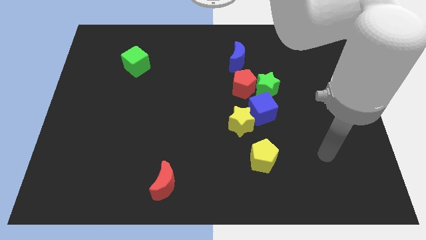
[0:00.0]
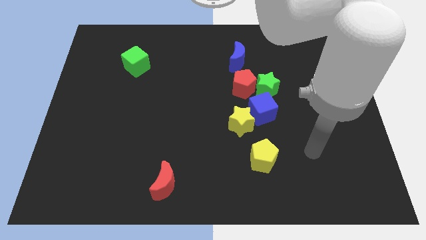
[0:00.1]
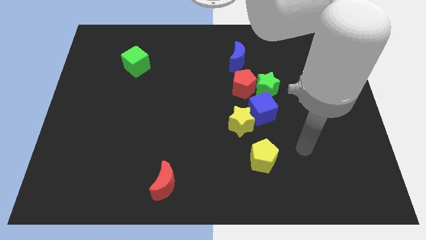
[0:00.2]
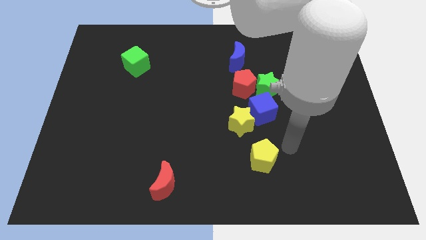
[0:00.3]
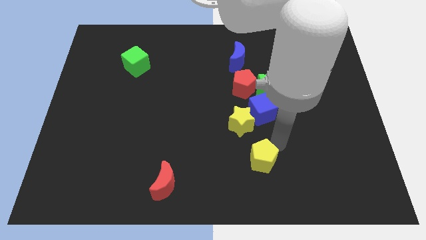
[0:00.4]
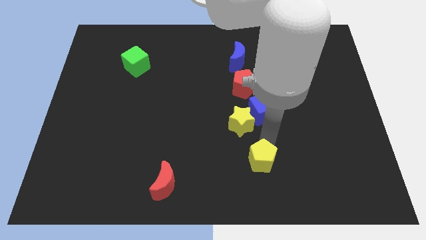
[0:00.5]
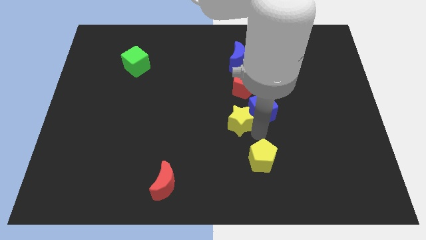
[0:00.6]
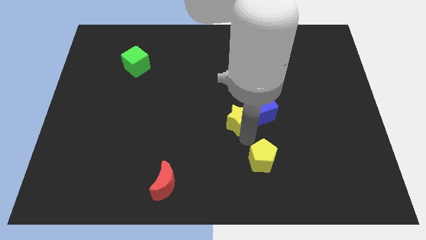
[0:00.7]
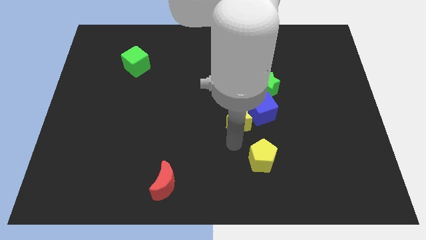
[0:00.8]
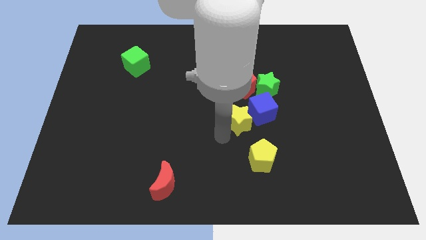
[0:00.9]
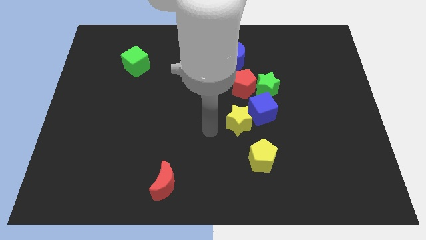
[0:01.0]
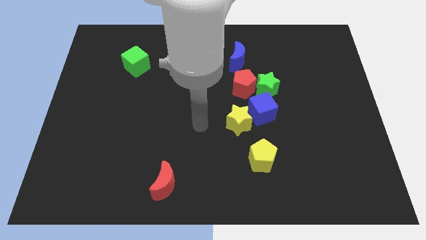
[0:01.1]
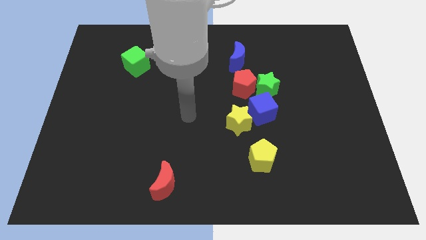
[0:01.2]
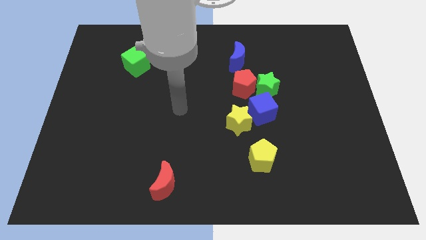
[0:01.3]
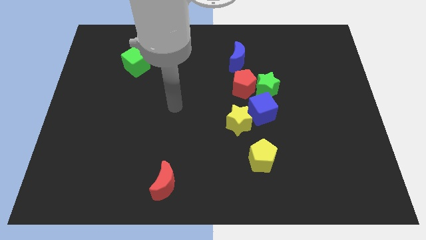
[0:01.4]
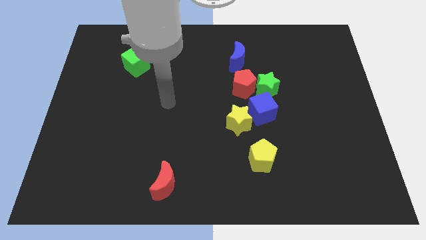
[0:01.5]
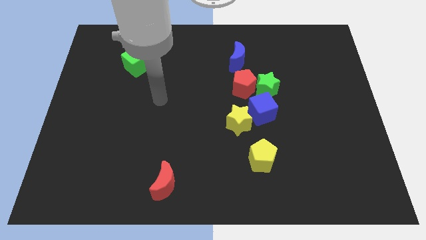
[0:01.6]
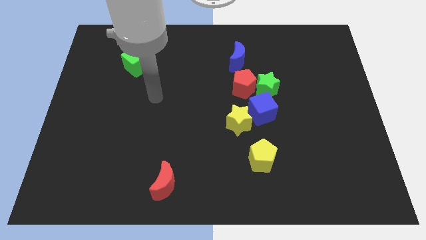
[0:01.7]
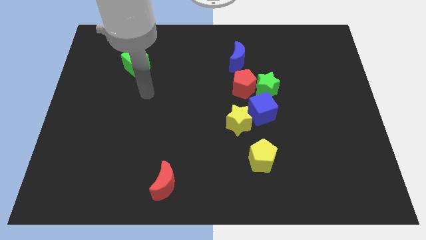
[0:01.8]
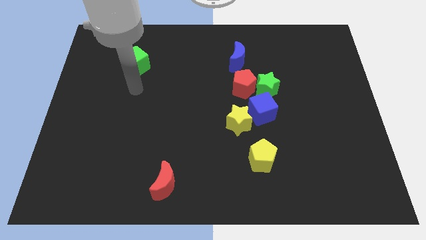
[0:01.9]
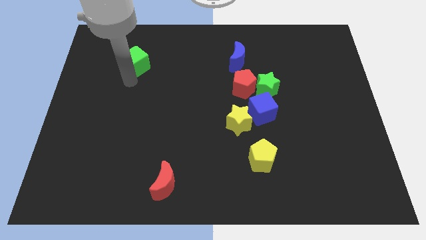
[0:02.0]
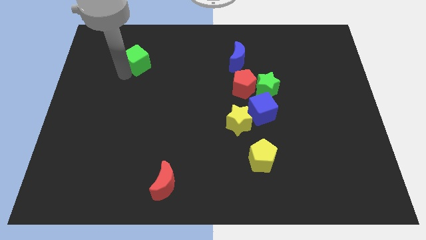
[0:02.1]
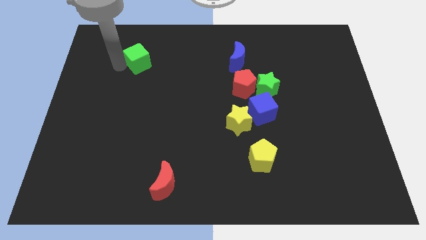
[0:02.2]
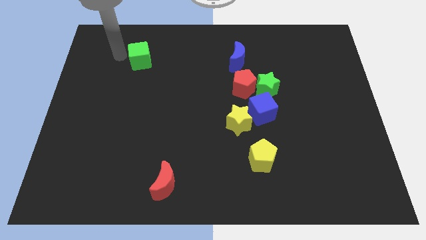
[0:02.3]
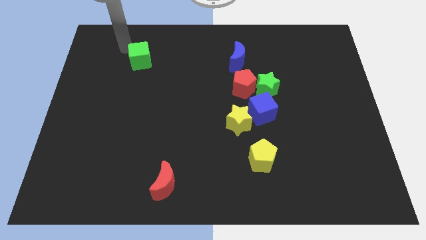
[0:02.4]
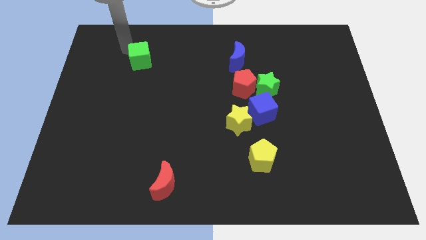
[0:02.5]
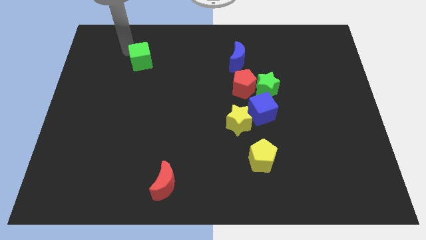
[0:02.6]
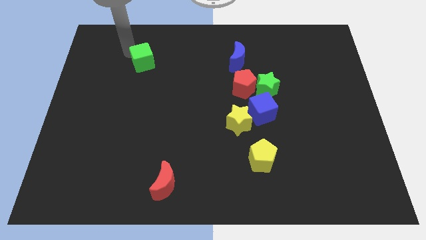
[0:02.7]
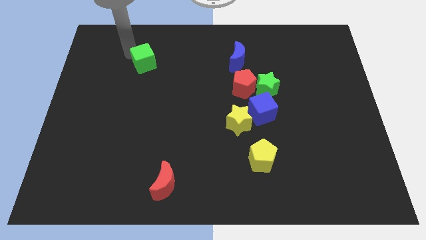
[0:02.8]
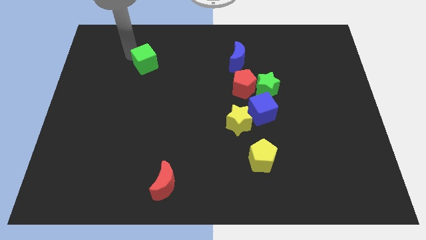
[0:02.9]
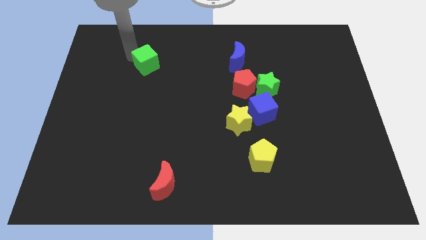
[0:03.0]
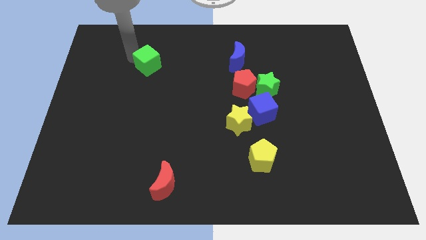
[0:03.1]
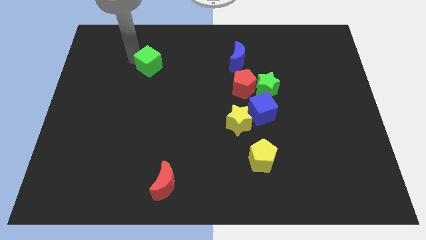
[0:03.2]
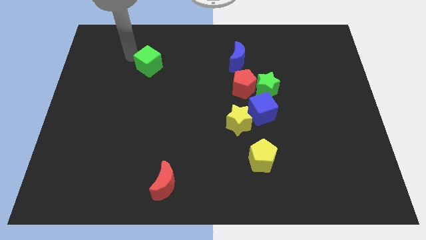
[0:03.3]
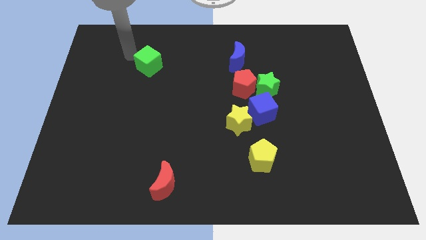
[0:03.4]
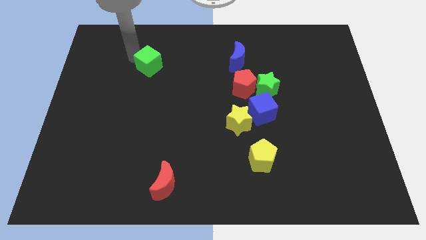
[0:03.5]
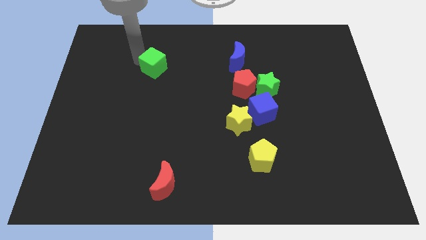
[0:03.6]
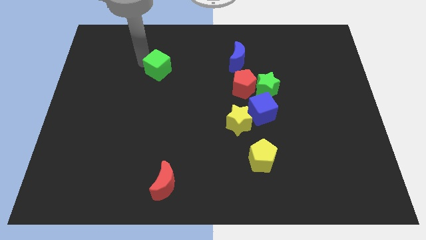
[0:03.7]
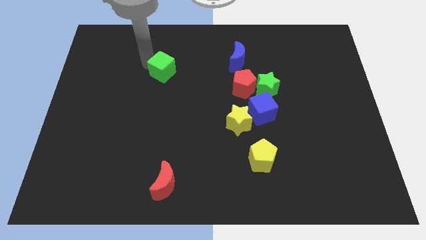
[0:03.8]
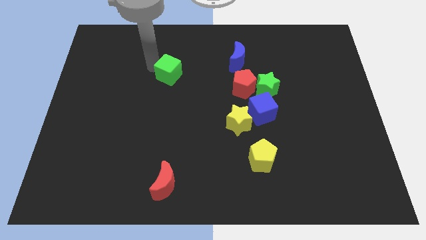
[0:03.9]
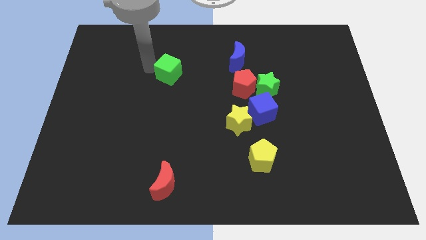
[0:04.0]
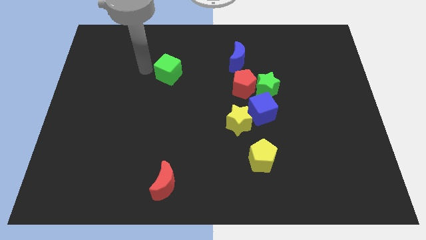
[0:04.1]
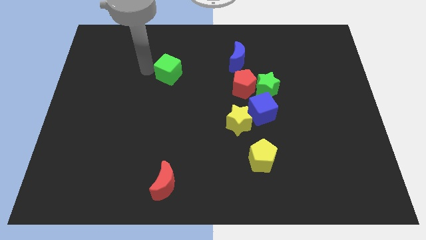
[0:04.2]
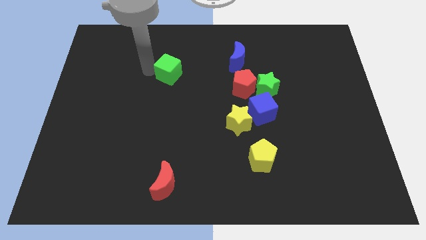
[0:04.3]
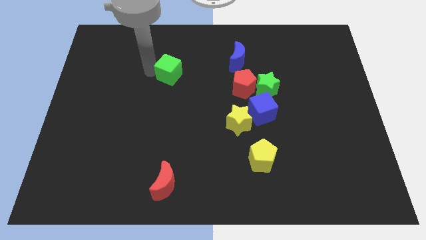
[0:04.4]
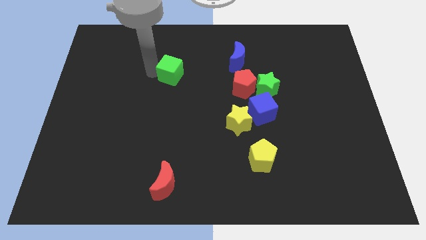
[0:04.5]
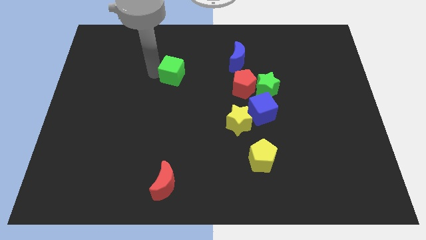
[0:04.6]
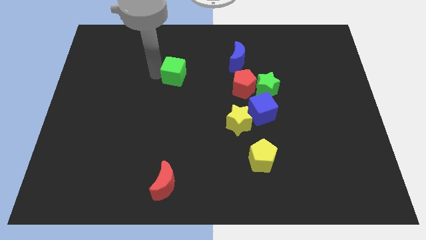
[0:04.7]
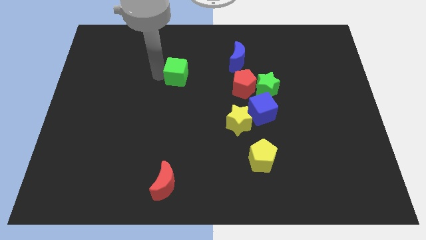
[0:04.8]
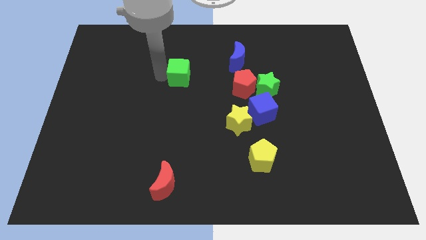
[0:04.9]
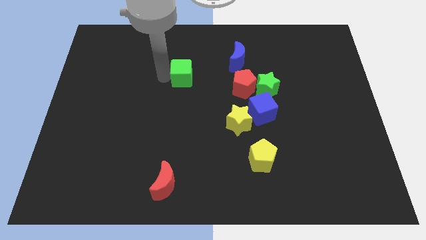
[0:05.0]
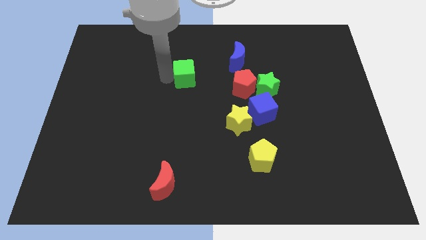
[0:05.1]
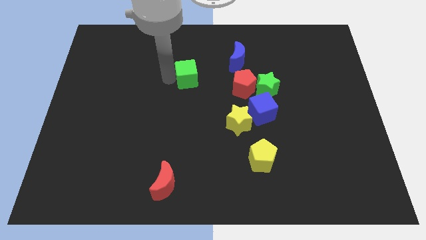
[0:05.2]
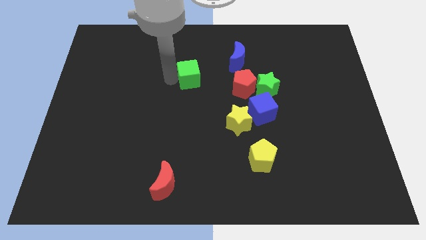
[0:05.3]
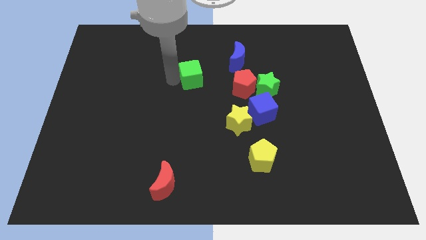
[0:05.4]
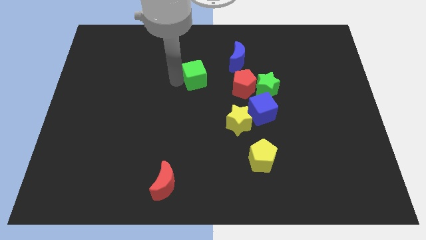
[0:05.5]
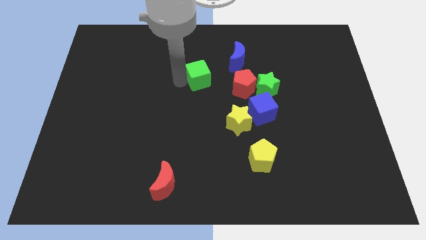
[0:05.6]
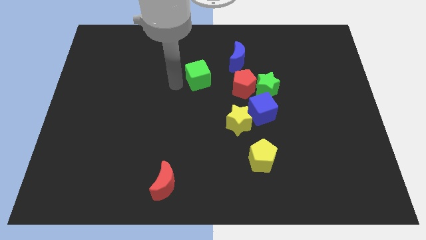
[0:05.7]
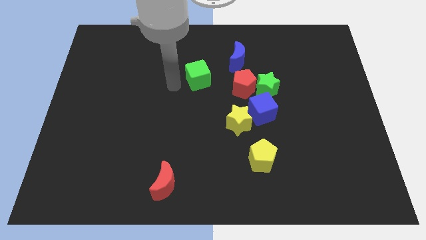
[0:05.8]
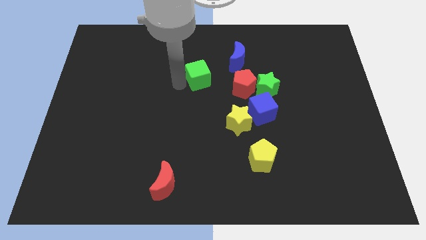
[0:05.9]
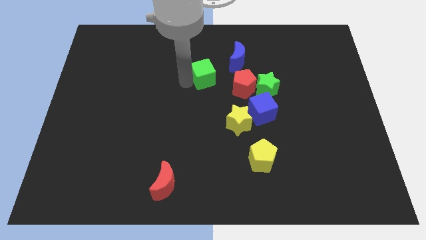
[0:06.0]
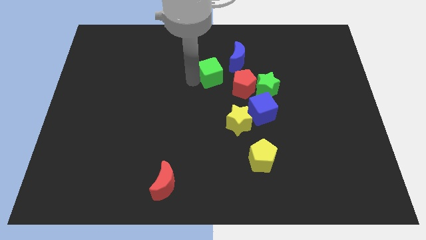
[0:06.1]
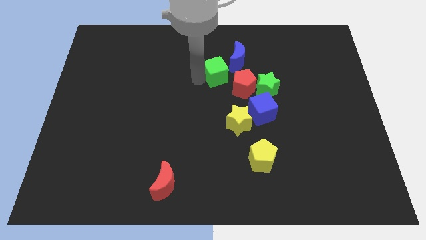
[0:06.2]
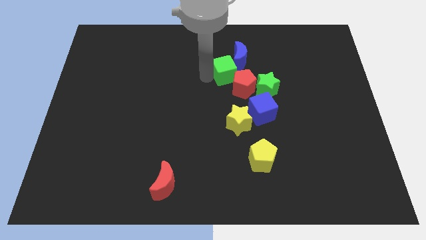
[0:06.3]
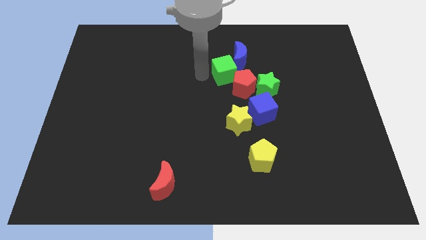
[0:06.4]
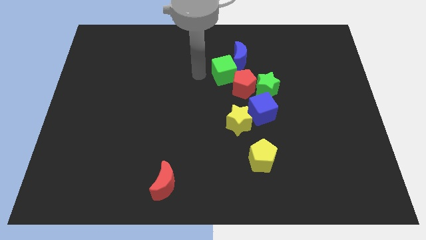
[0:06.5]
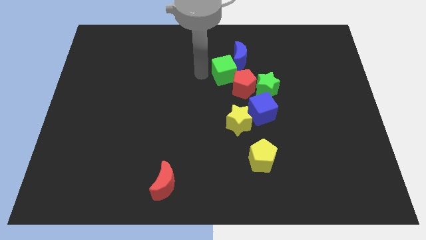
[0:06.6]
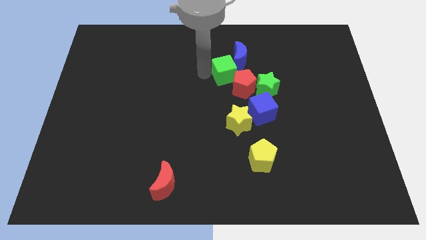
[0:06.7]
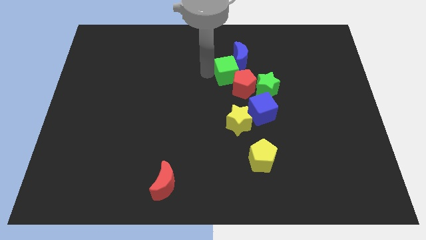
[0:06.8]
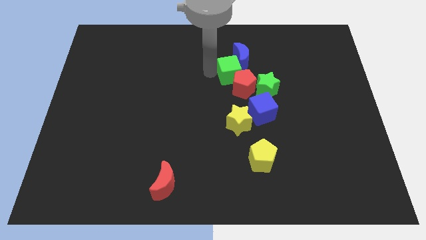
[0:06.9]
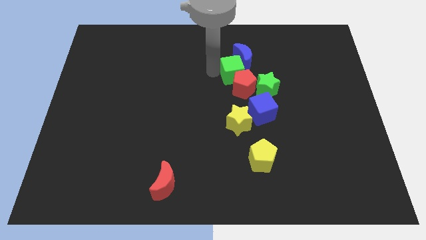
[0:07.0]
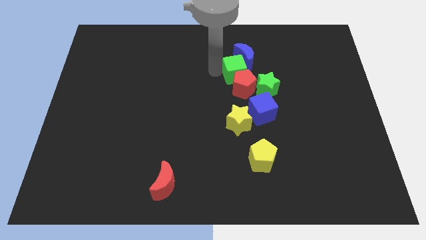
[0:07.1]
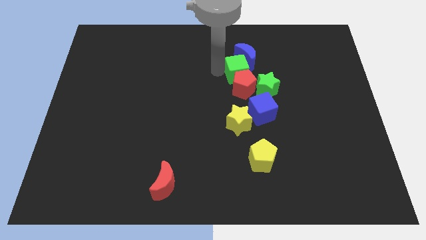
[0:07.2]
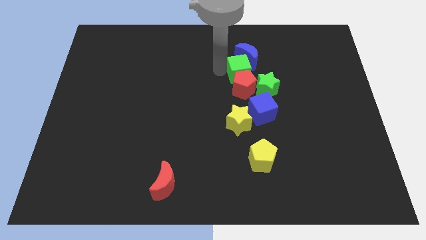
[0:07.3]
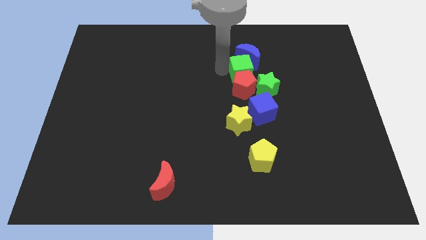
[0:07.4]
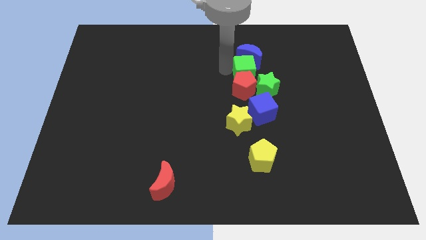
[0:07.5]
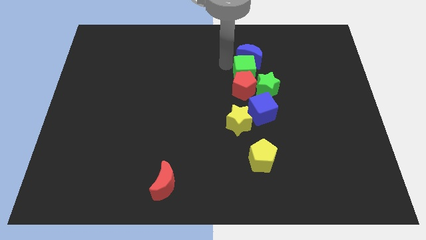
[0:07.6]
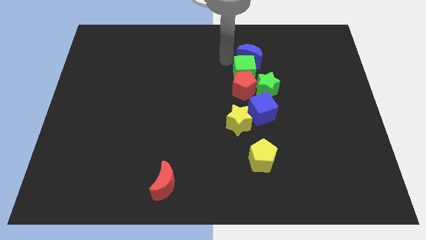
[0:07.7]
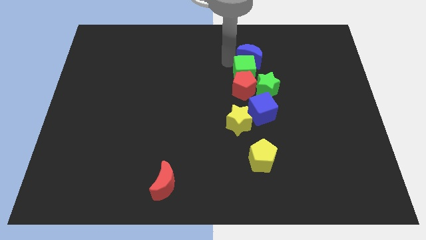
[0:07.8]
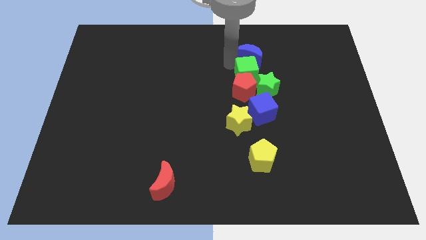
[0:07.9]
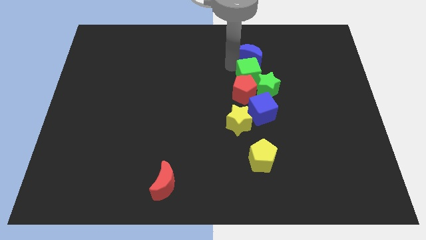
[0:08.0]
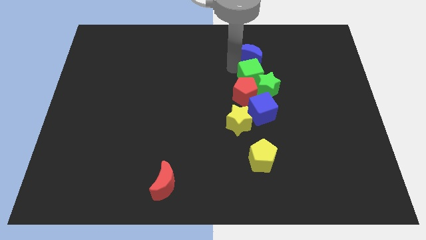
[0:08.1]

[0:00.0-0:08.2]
move the green cube to the green star
